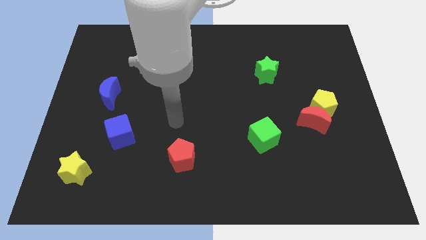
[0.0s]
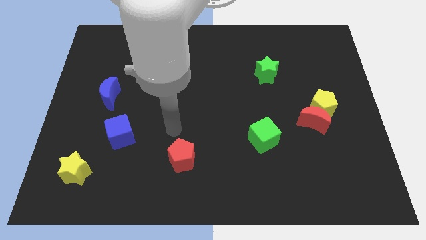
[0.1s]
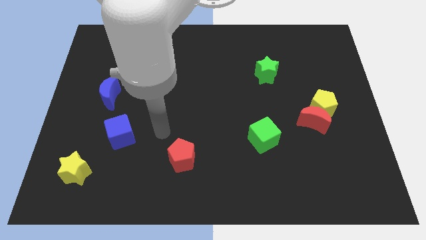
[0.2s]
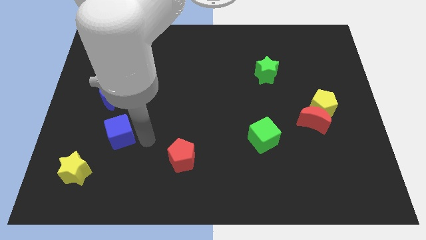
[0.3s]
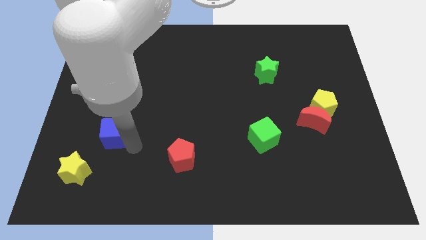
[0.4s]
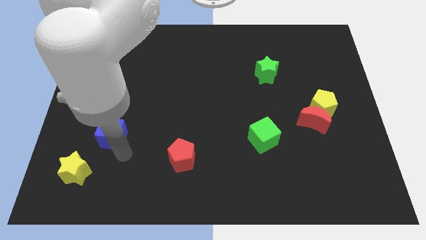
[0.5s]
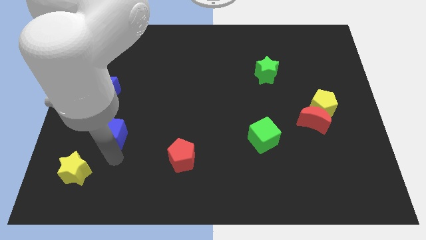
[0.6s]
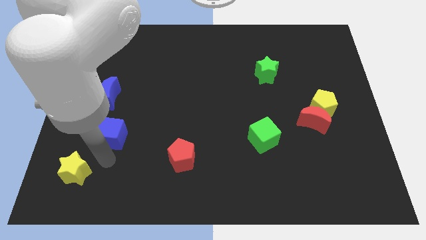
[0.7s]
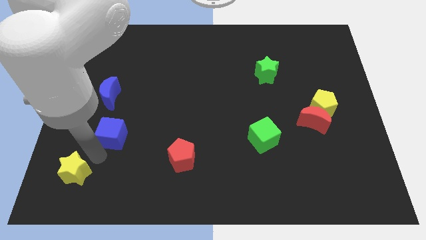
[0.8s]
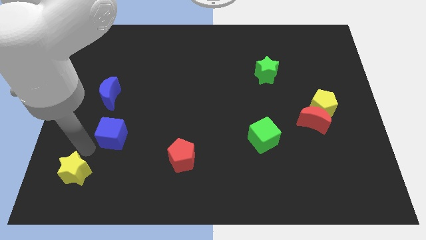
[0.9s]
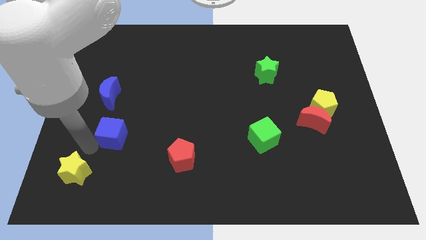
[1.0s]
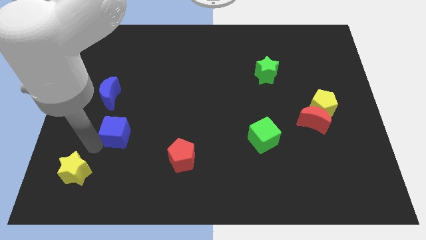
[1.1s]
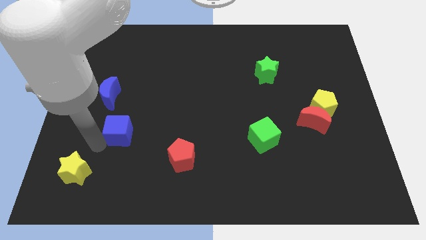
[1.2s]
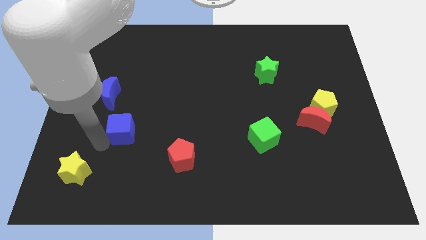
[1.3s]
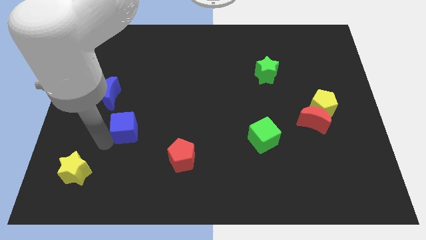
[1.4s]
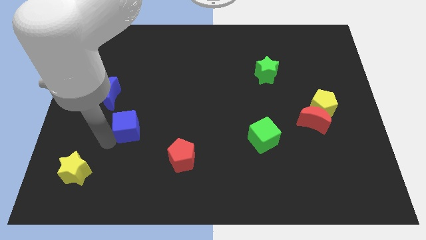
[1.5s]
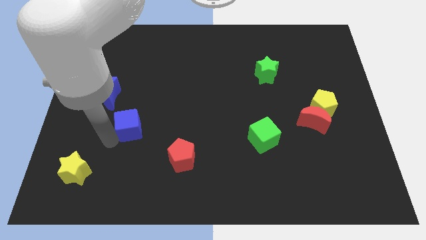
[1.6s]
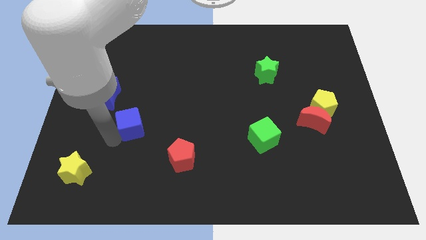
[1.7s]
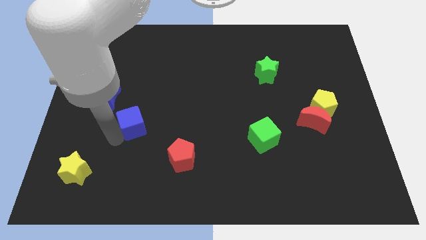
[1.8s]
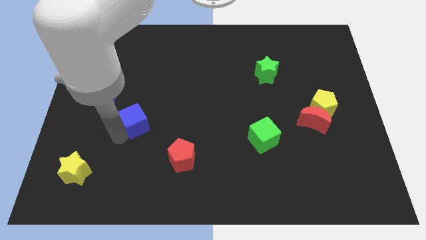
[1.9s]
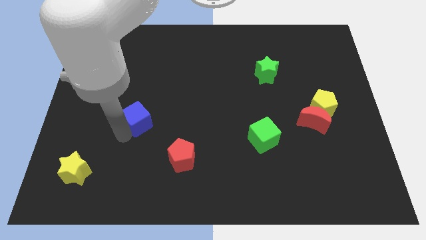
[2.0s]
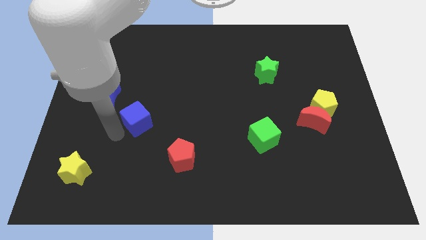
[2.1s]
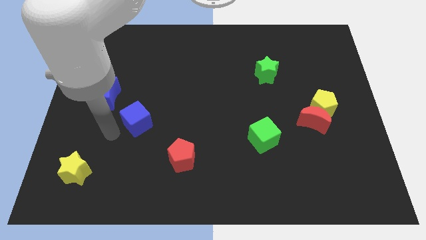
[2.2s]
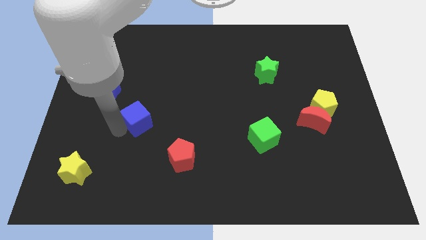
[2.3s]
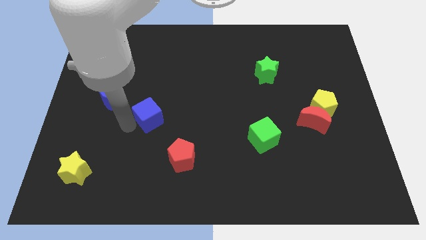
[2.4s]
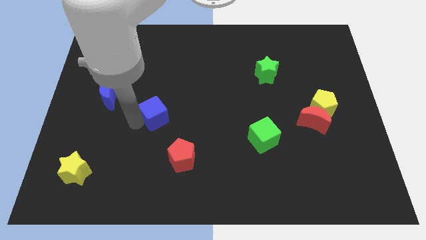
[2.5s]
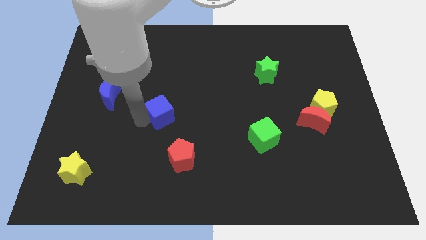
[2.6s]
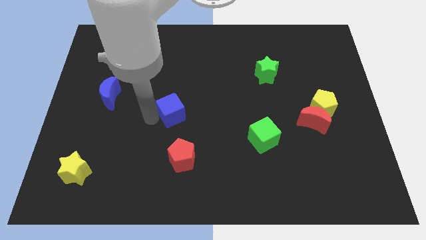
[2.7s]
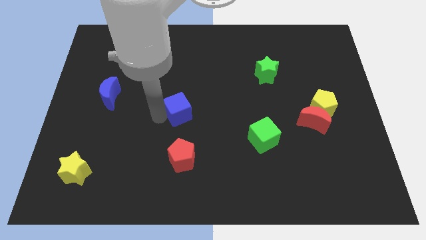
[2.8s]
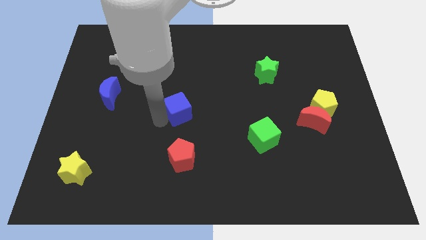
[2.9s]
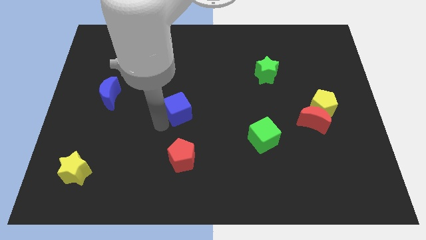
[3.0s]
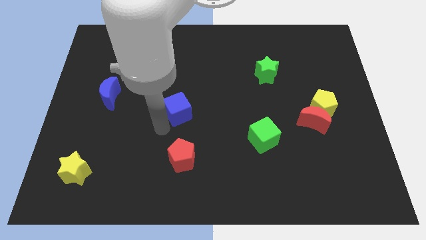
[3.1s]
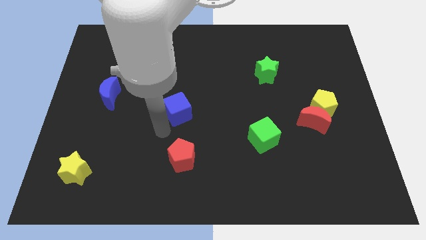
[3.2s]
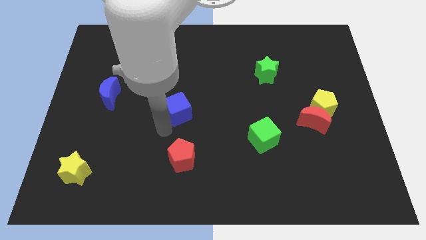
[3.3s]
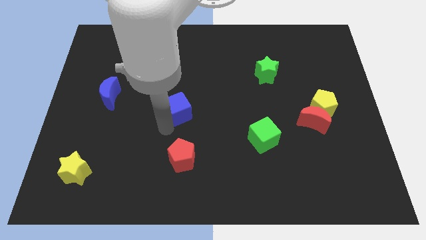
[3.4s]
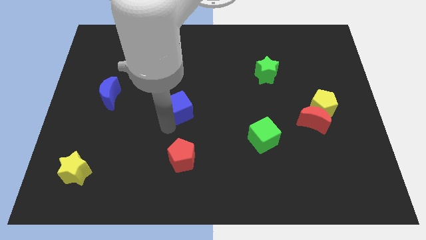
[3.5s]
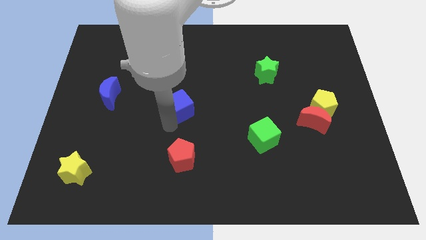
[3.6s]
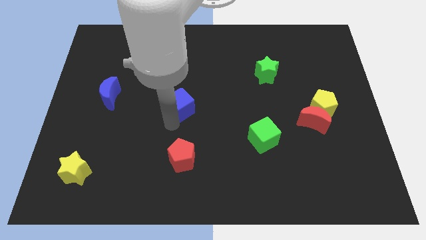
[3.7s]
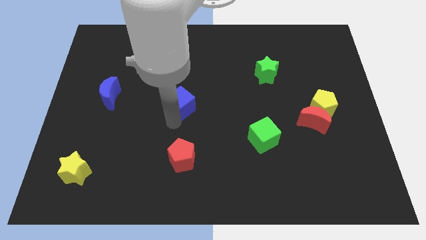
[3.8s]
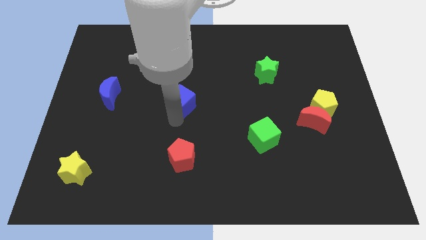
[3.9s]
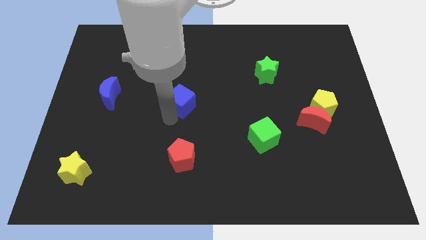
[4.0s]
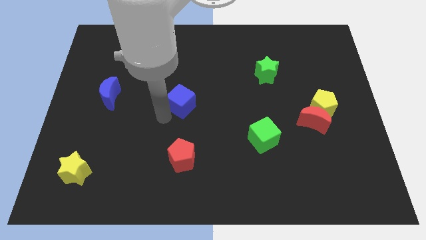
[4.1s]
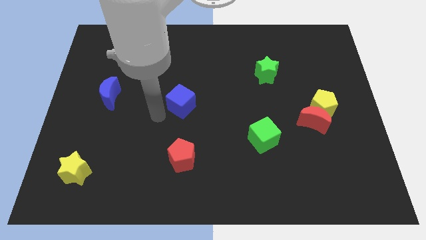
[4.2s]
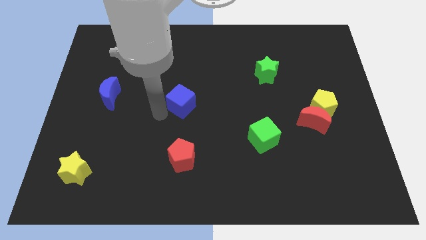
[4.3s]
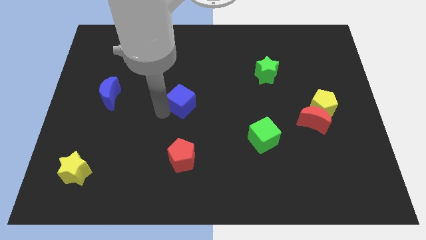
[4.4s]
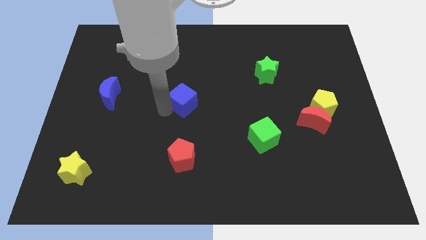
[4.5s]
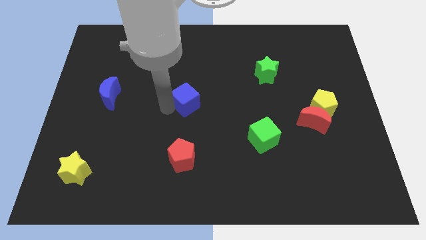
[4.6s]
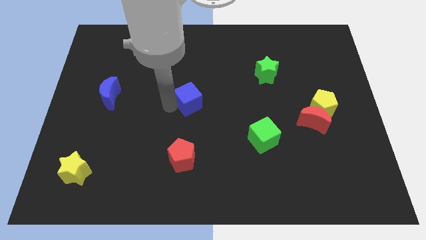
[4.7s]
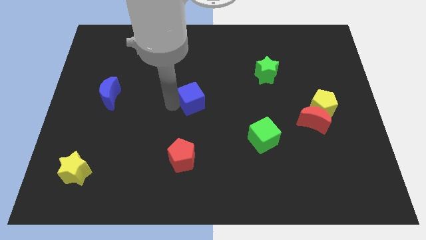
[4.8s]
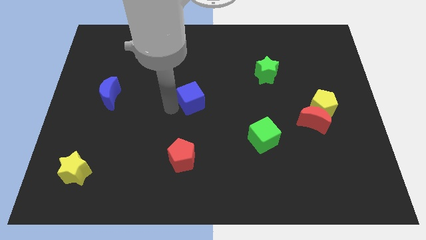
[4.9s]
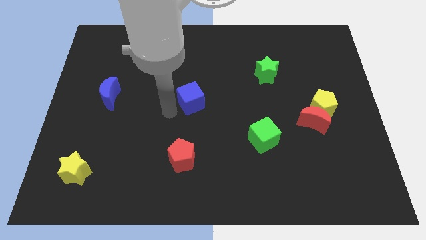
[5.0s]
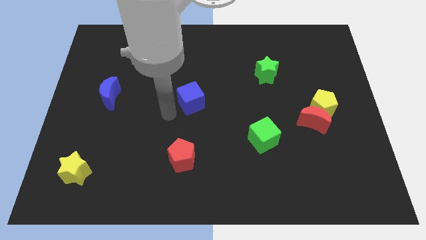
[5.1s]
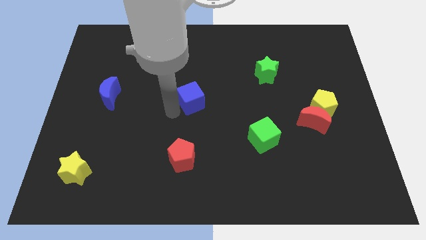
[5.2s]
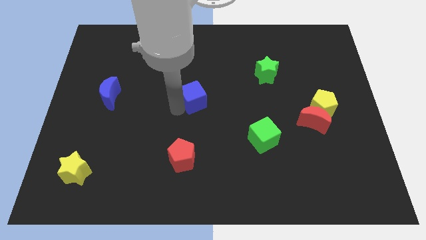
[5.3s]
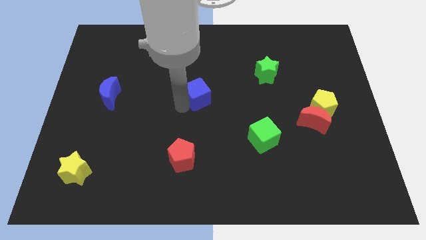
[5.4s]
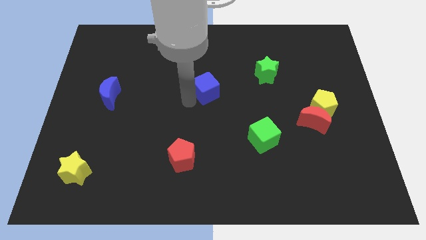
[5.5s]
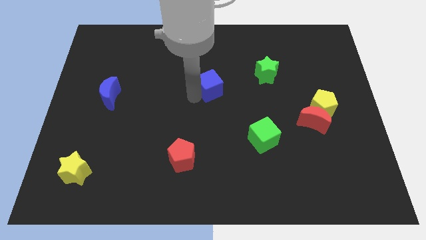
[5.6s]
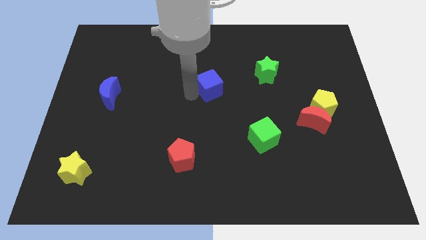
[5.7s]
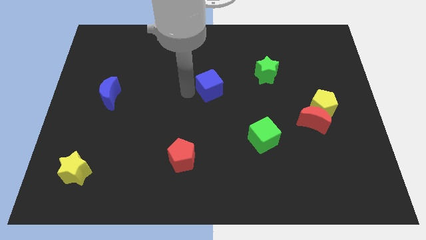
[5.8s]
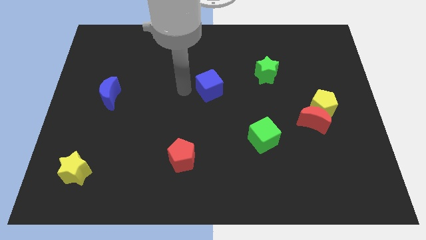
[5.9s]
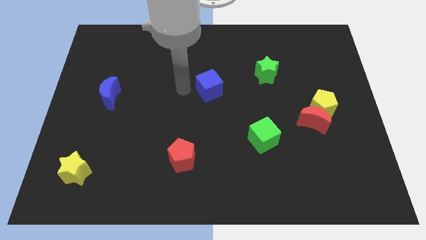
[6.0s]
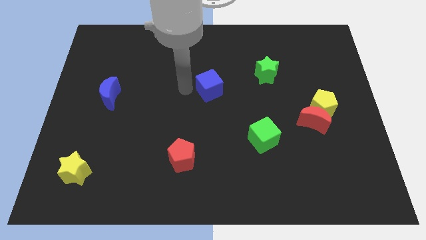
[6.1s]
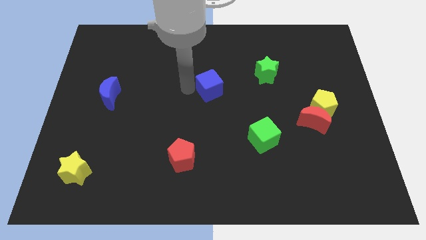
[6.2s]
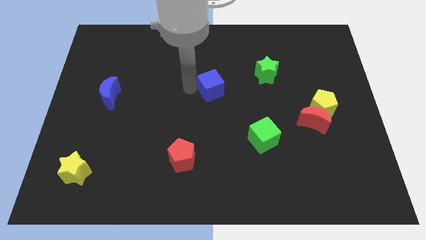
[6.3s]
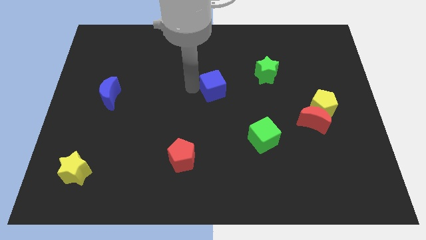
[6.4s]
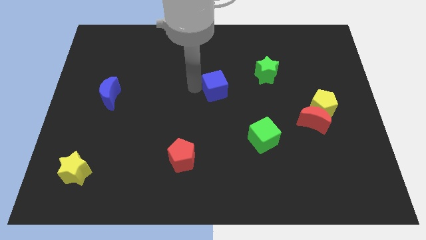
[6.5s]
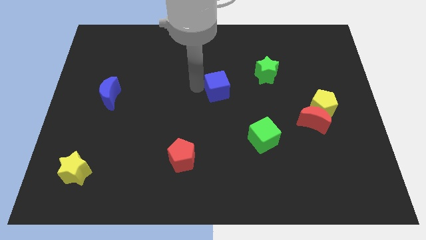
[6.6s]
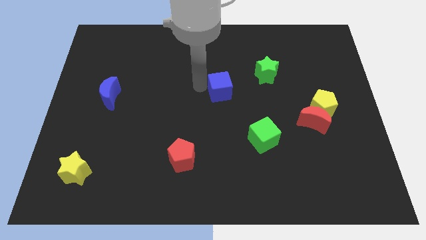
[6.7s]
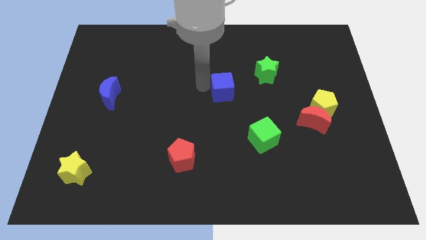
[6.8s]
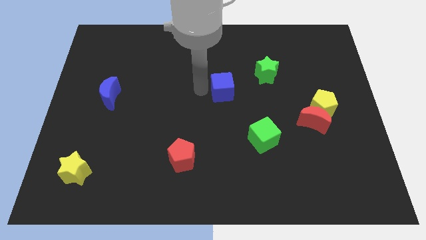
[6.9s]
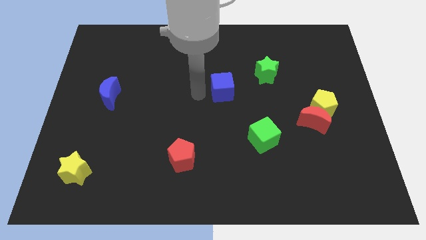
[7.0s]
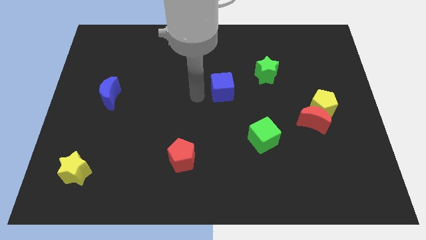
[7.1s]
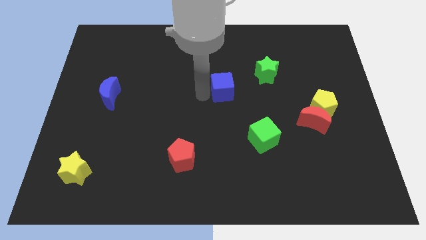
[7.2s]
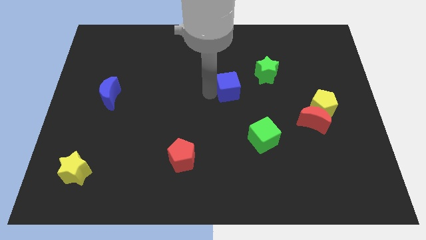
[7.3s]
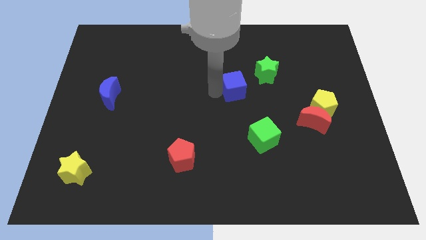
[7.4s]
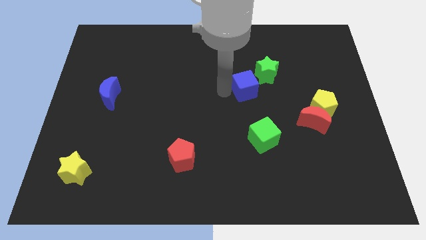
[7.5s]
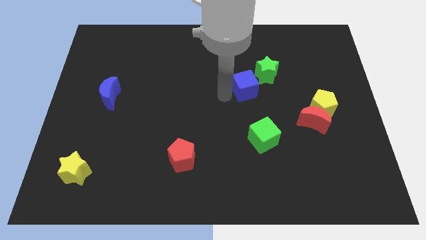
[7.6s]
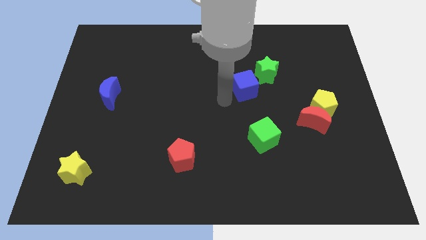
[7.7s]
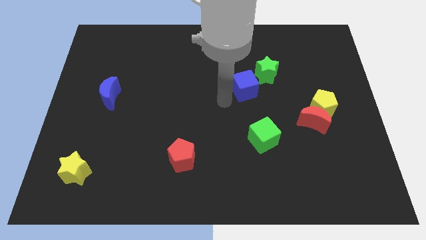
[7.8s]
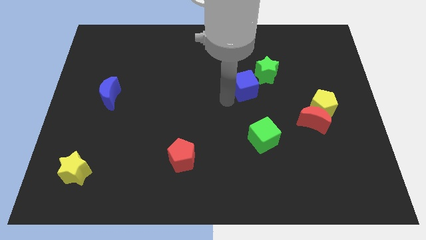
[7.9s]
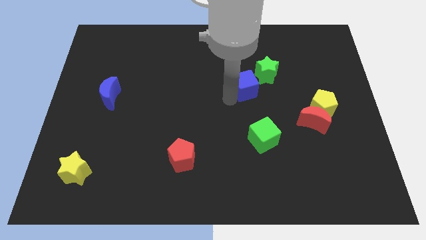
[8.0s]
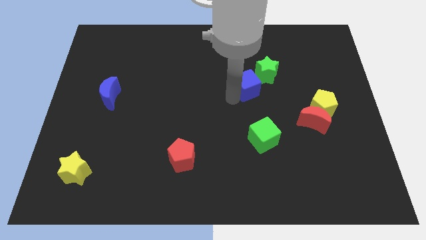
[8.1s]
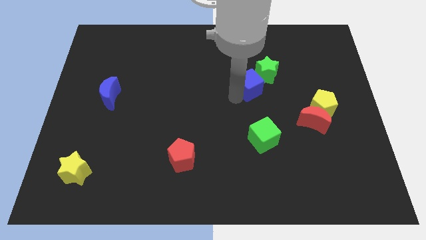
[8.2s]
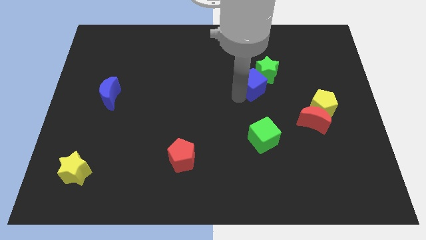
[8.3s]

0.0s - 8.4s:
slide the blue cube next to the green star
